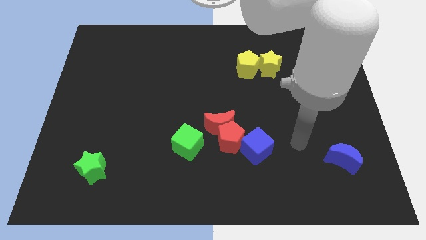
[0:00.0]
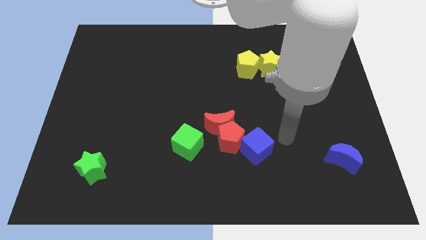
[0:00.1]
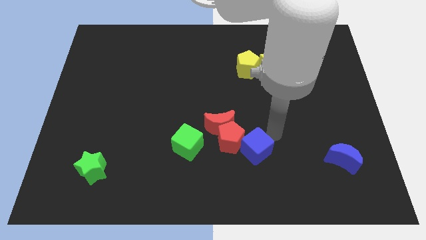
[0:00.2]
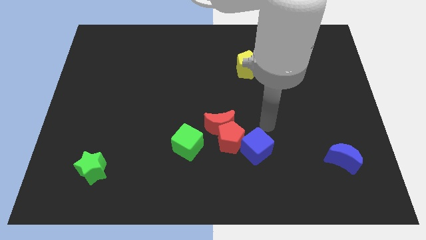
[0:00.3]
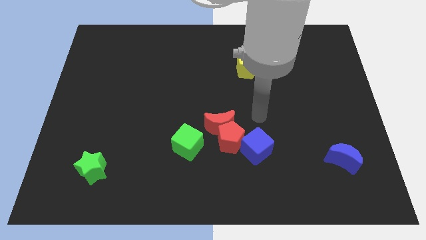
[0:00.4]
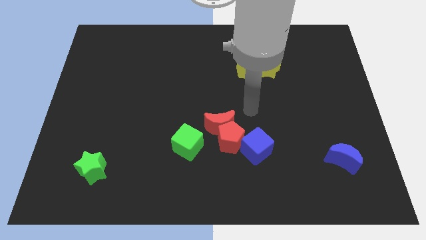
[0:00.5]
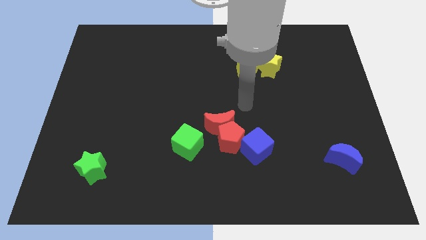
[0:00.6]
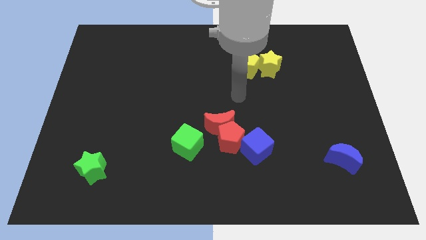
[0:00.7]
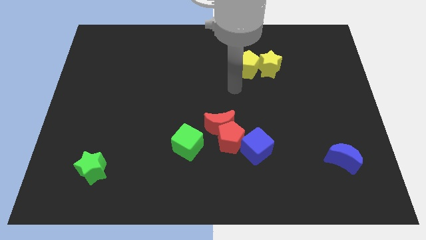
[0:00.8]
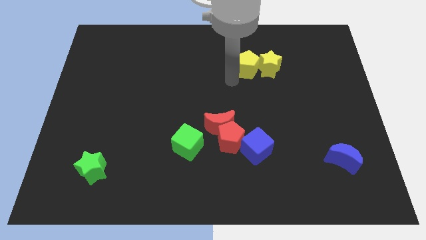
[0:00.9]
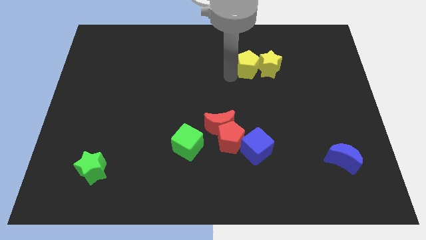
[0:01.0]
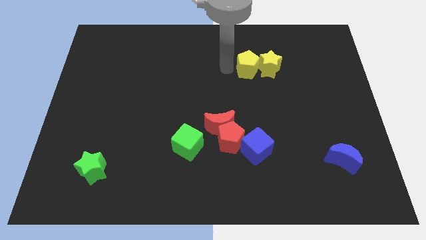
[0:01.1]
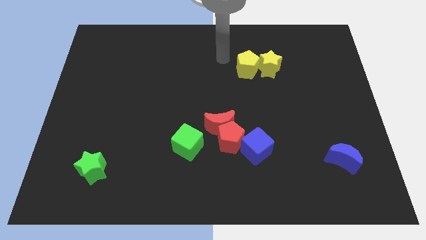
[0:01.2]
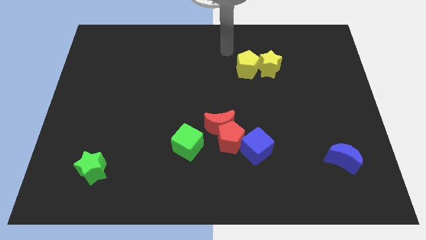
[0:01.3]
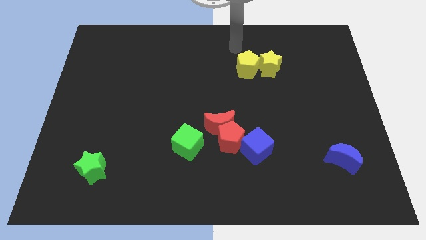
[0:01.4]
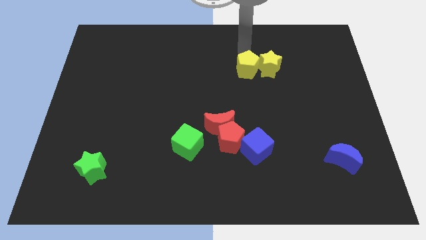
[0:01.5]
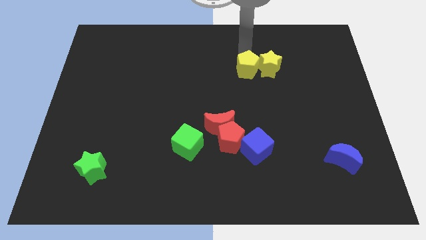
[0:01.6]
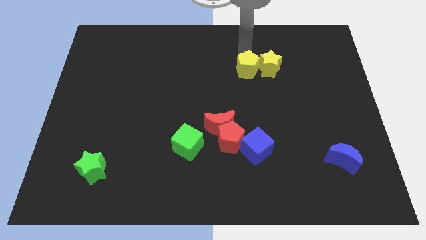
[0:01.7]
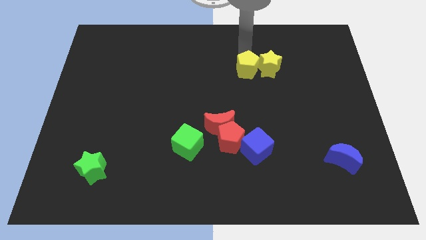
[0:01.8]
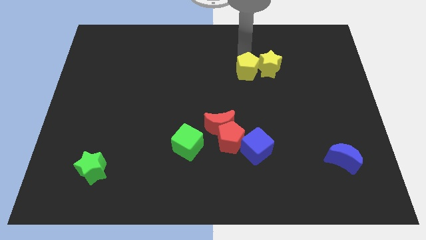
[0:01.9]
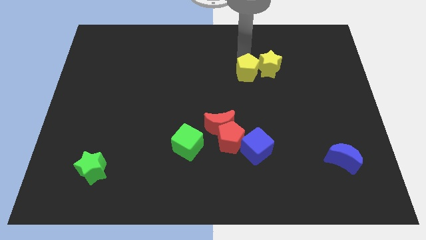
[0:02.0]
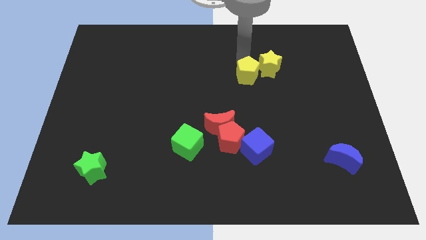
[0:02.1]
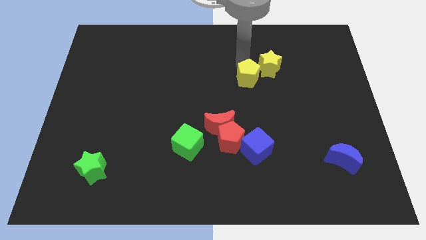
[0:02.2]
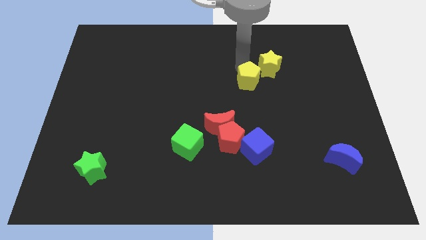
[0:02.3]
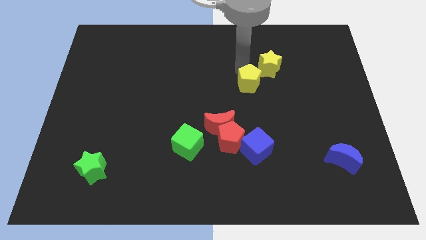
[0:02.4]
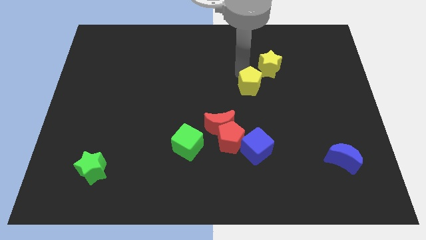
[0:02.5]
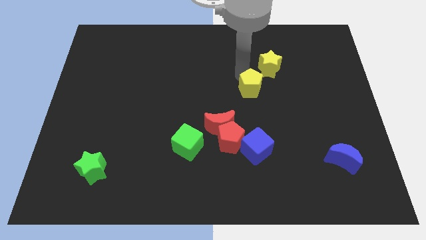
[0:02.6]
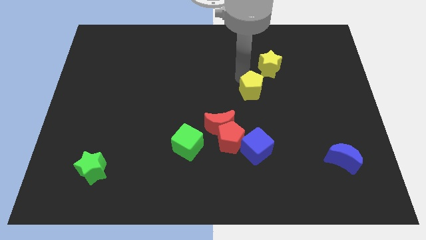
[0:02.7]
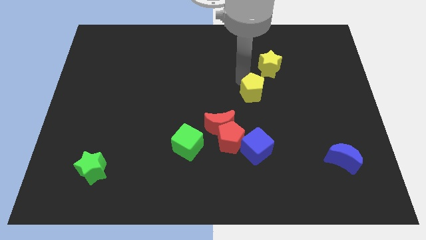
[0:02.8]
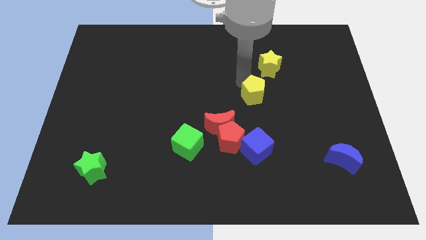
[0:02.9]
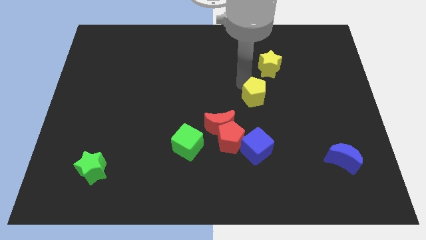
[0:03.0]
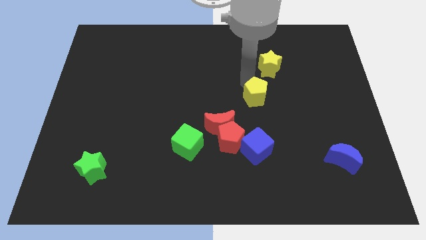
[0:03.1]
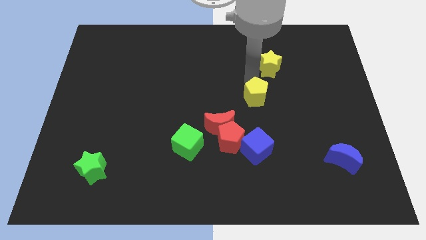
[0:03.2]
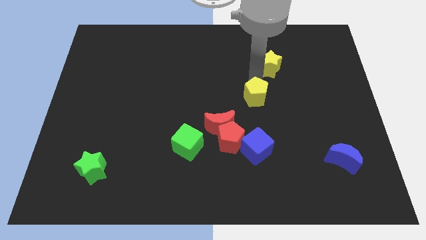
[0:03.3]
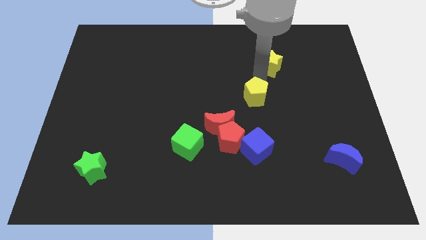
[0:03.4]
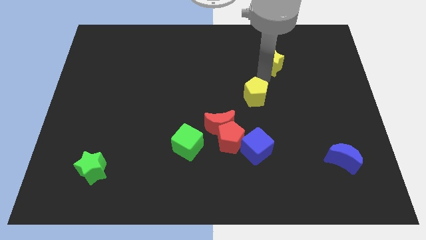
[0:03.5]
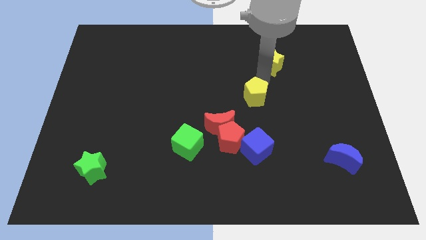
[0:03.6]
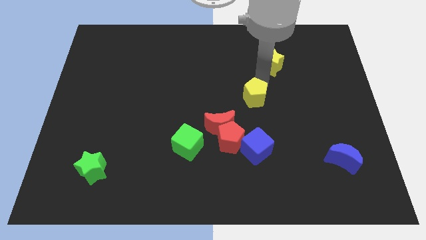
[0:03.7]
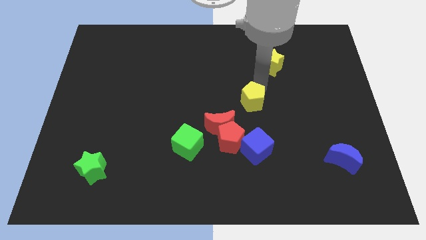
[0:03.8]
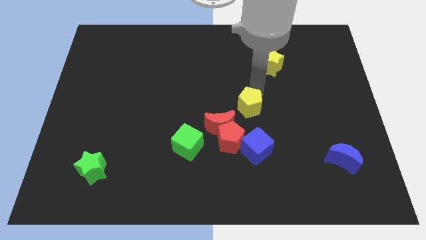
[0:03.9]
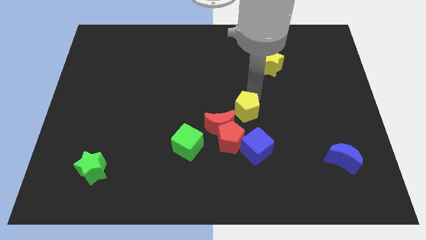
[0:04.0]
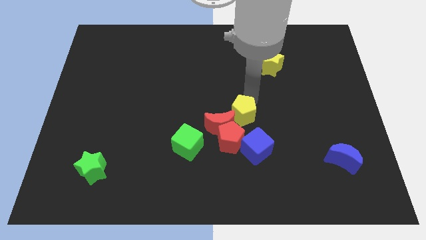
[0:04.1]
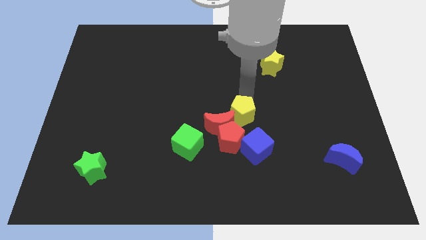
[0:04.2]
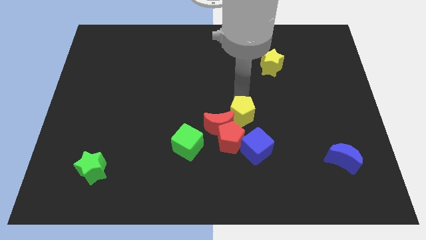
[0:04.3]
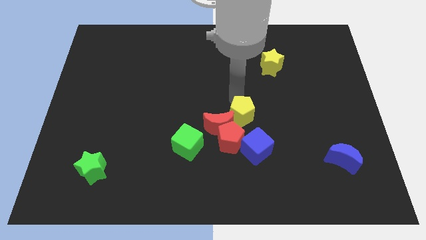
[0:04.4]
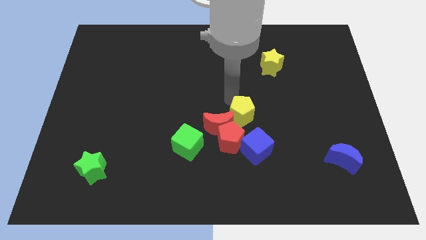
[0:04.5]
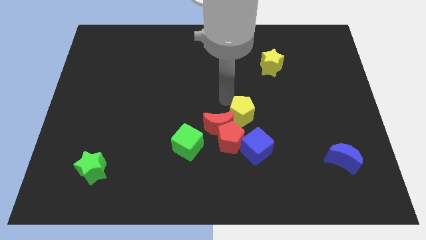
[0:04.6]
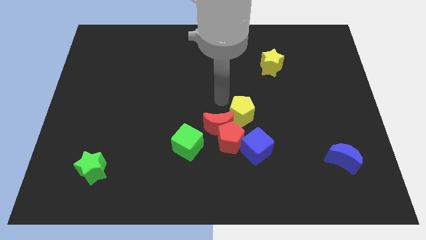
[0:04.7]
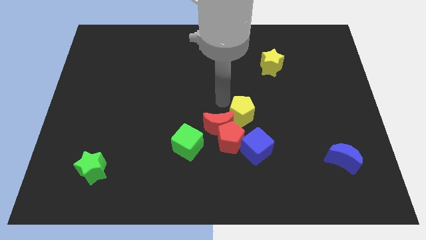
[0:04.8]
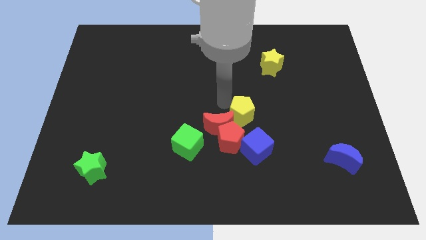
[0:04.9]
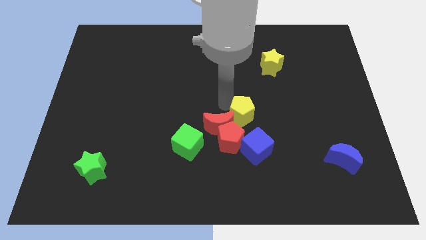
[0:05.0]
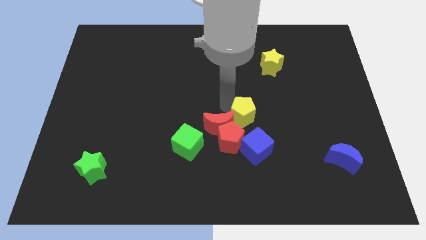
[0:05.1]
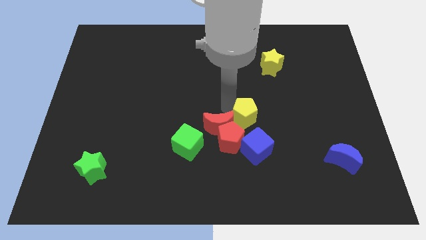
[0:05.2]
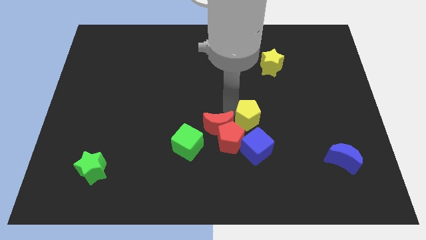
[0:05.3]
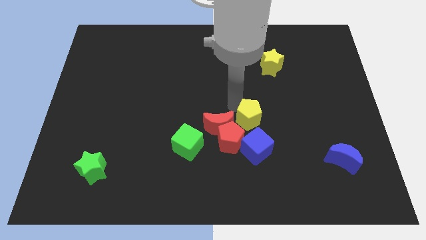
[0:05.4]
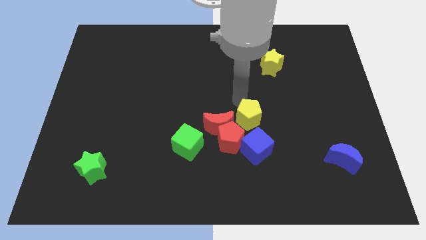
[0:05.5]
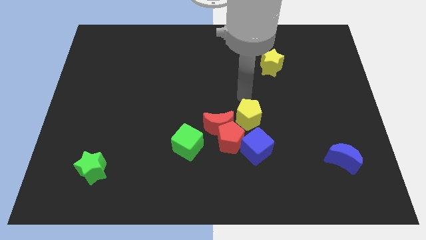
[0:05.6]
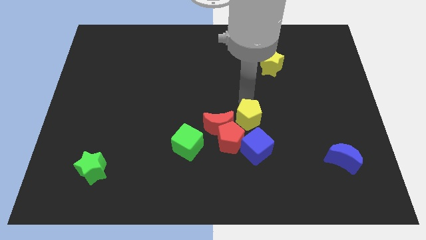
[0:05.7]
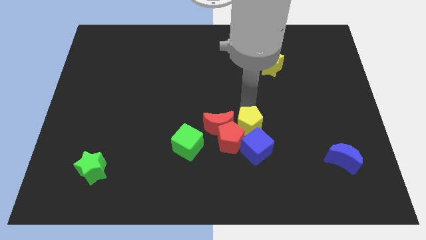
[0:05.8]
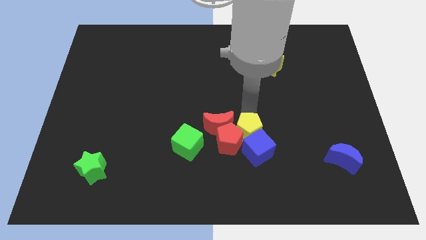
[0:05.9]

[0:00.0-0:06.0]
push the yellow pentagon close to the blue cube

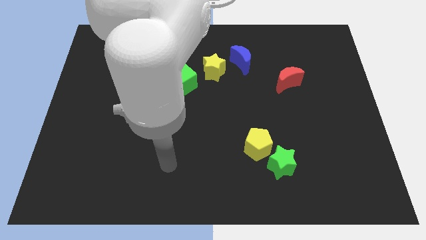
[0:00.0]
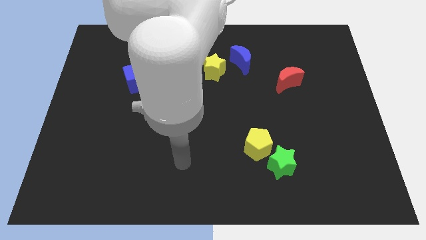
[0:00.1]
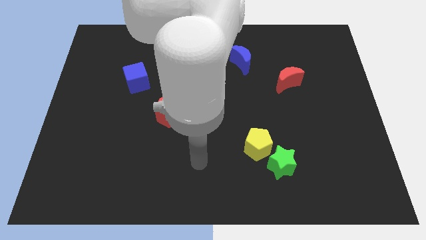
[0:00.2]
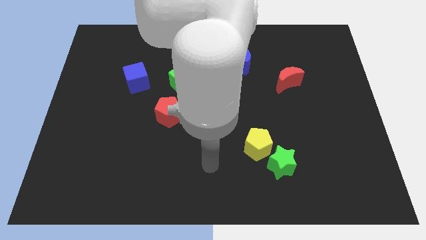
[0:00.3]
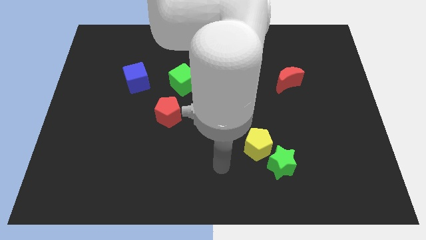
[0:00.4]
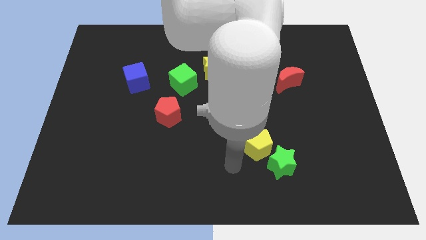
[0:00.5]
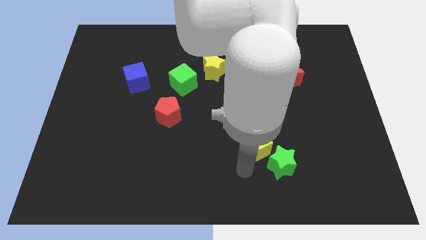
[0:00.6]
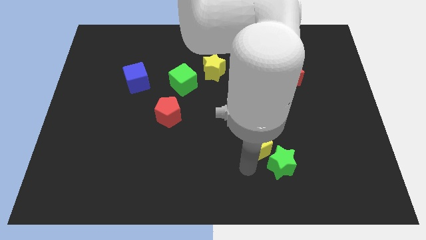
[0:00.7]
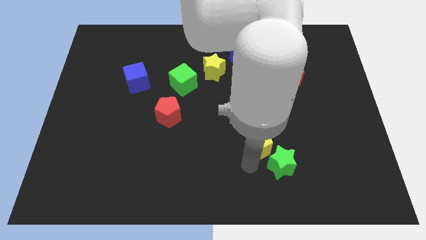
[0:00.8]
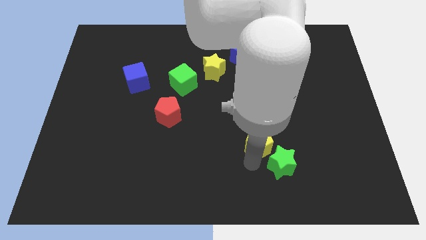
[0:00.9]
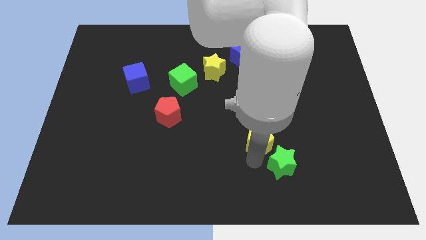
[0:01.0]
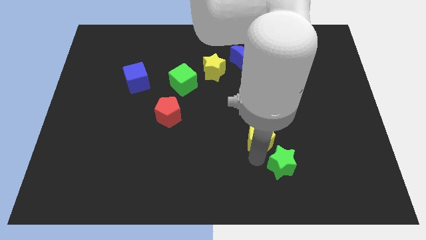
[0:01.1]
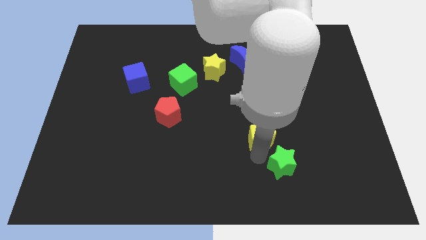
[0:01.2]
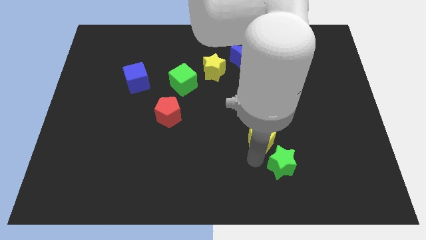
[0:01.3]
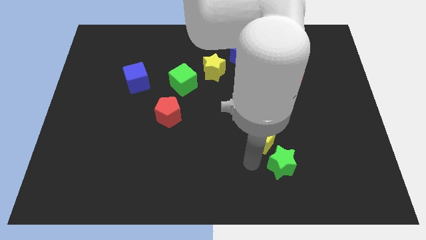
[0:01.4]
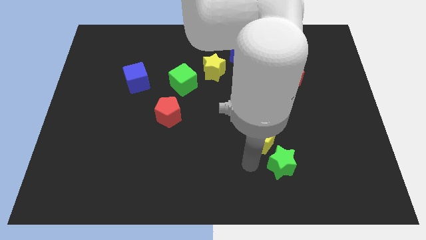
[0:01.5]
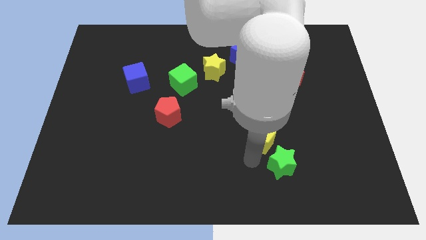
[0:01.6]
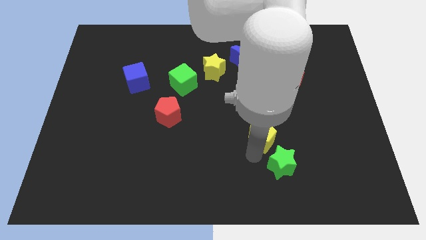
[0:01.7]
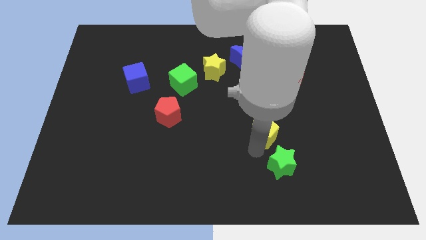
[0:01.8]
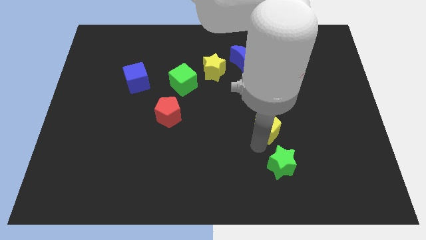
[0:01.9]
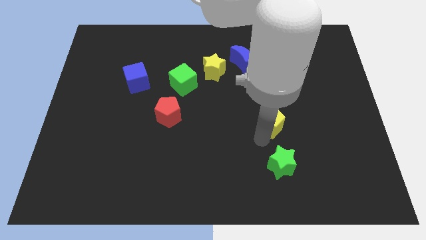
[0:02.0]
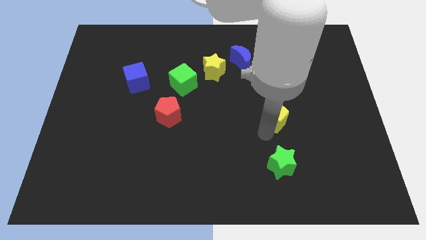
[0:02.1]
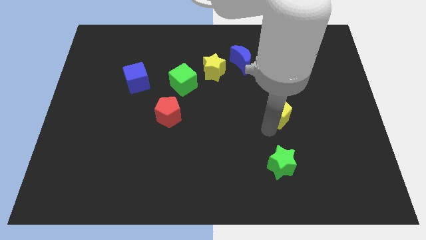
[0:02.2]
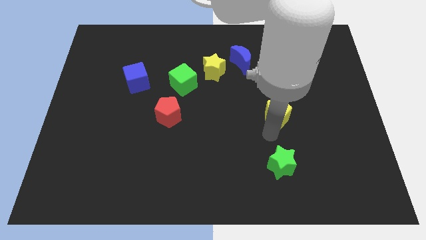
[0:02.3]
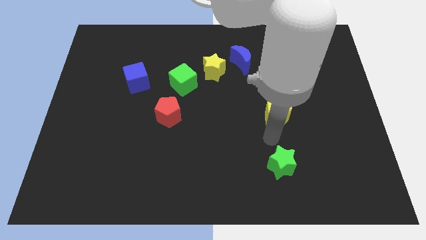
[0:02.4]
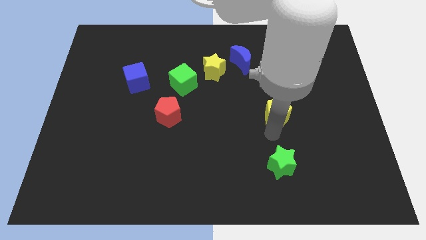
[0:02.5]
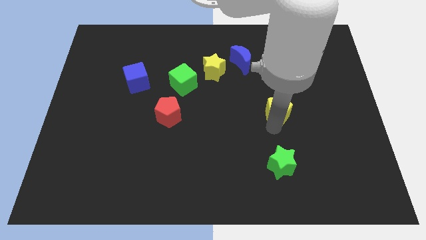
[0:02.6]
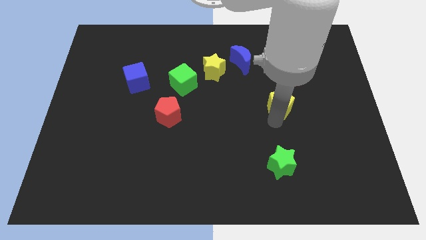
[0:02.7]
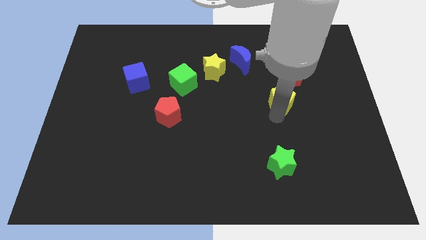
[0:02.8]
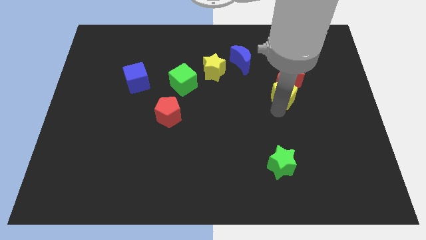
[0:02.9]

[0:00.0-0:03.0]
slide the yellow pentagon to the red moon
